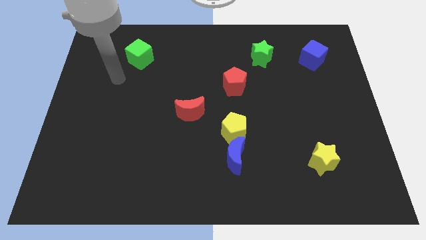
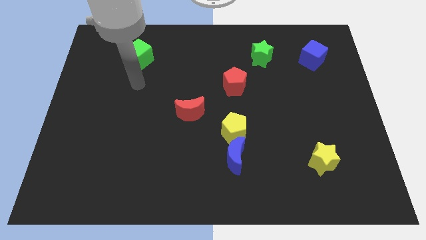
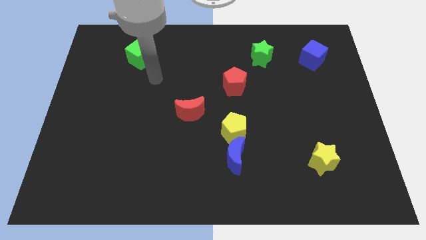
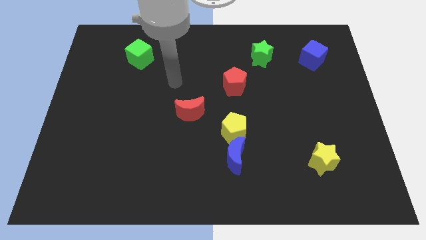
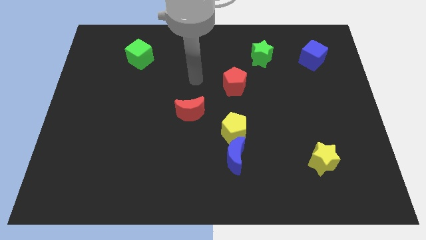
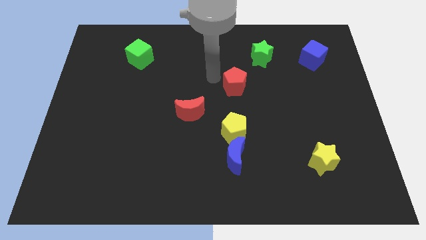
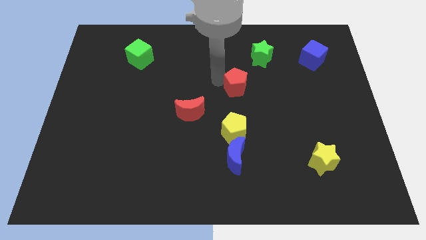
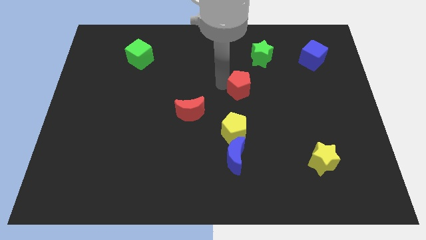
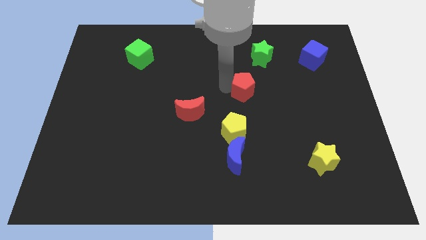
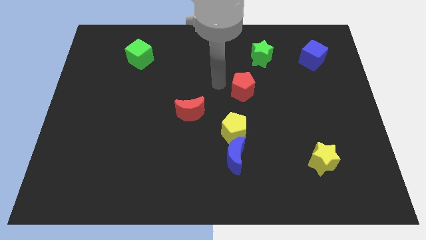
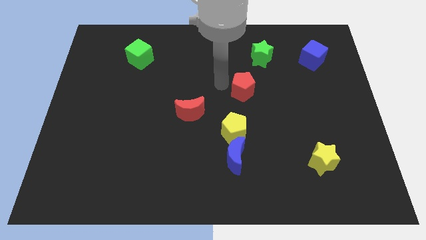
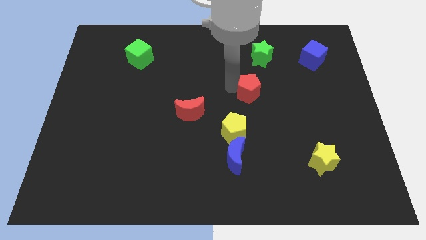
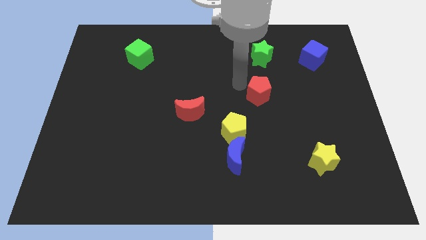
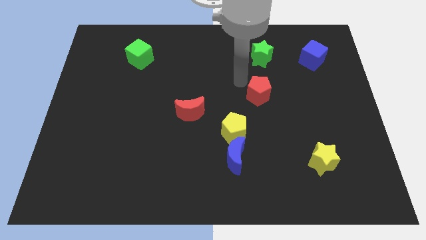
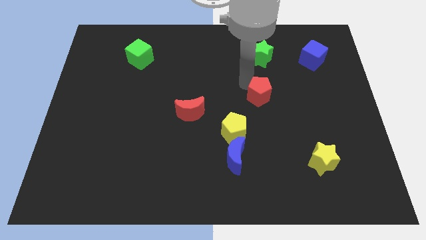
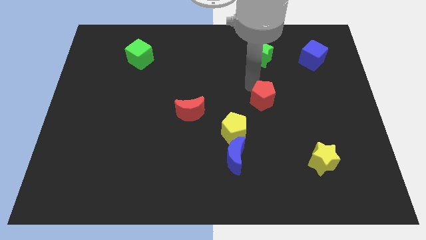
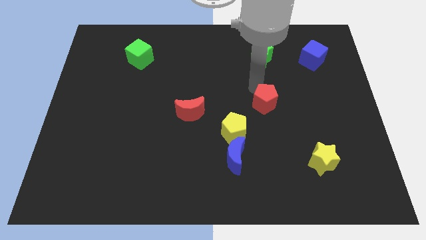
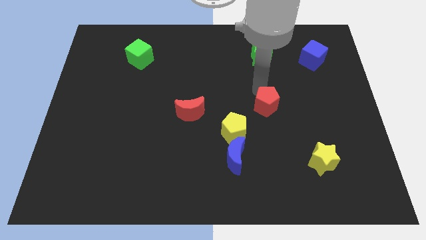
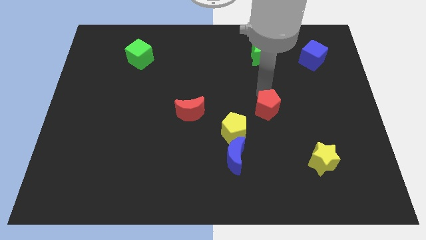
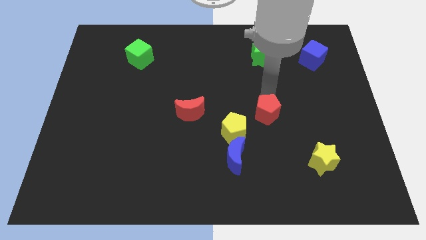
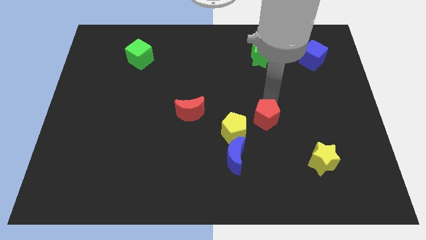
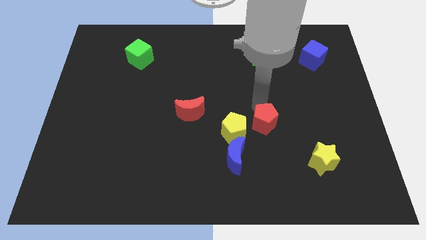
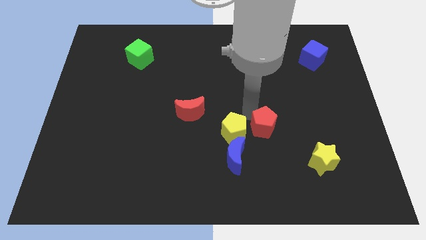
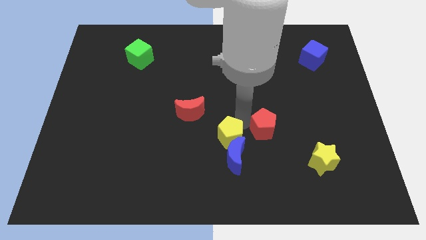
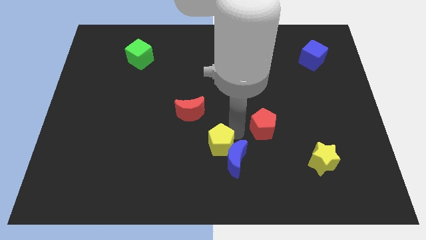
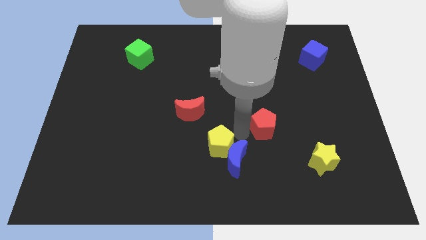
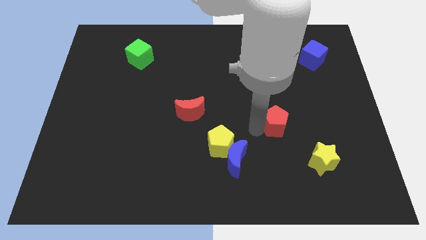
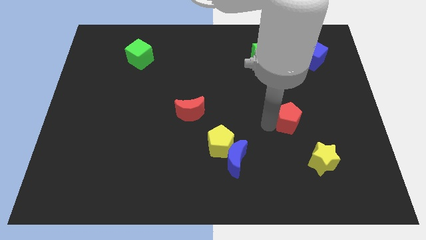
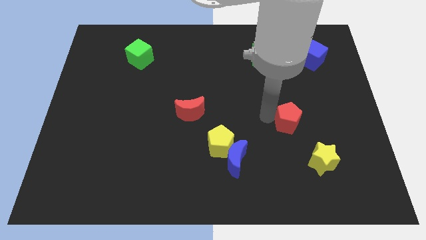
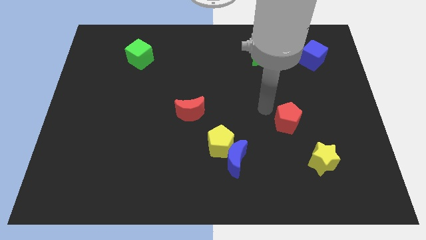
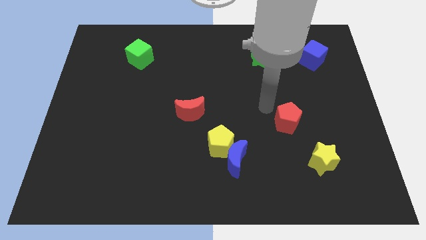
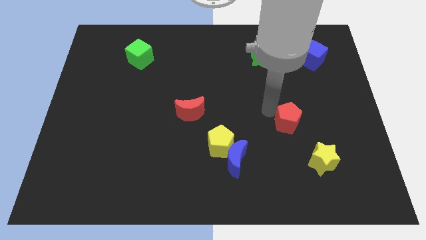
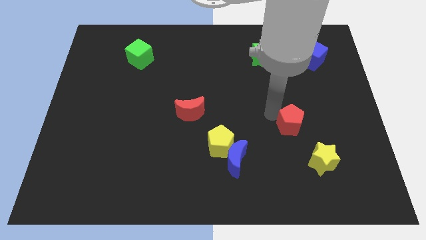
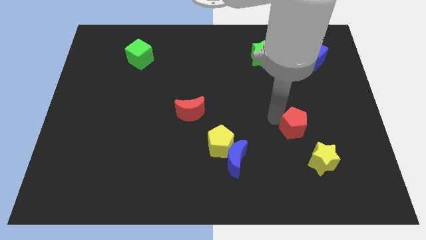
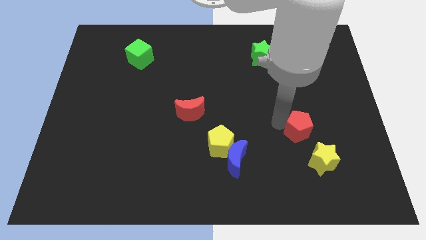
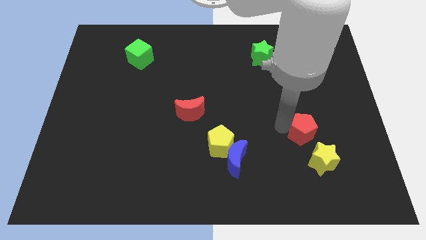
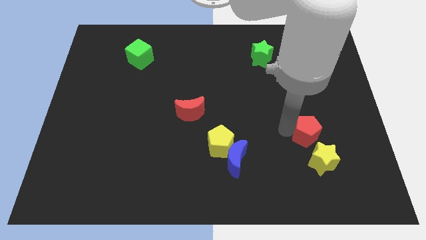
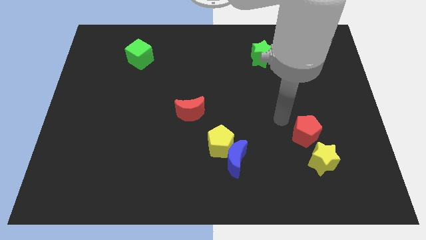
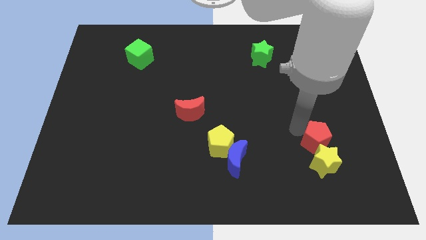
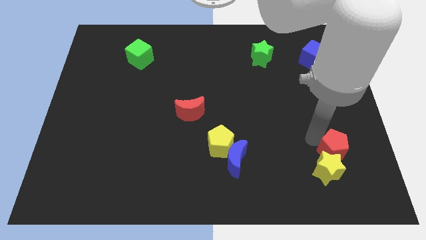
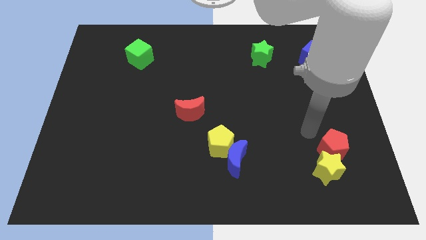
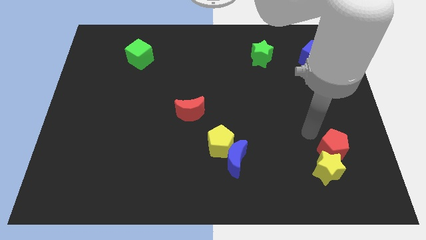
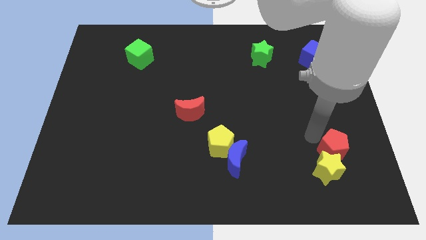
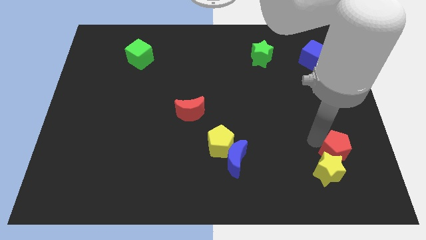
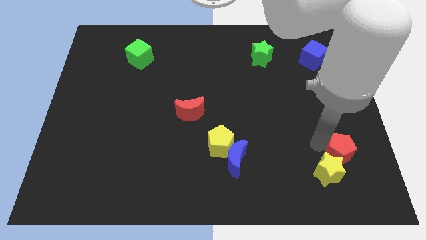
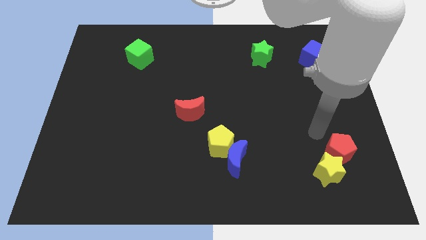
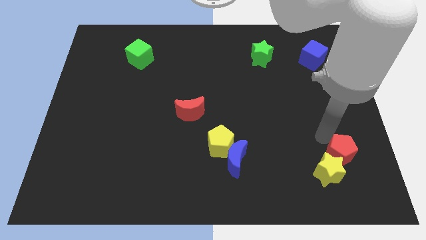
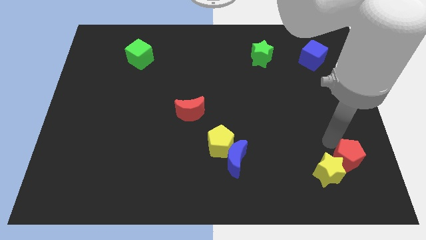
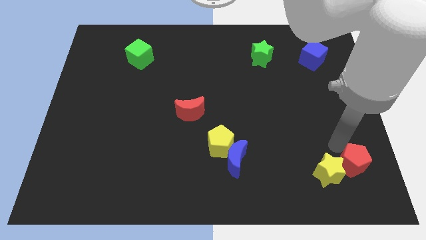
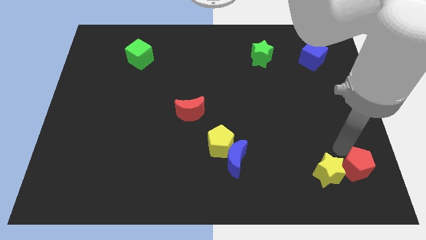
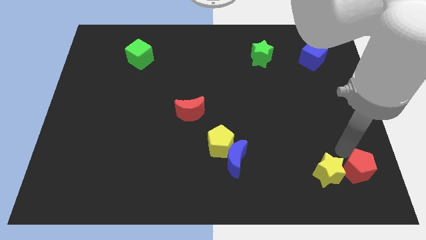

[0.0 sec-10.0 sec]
push the red pentagon to the bottom right of the board

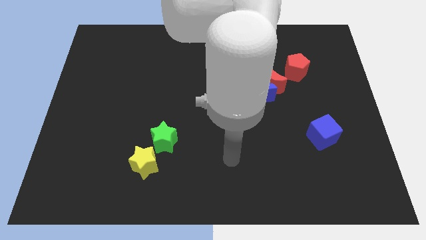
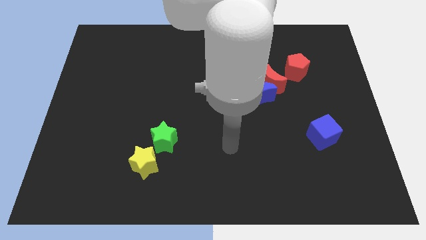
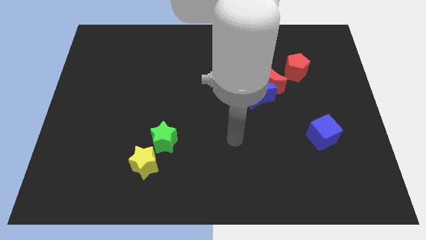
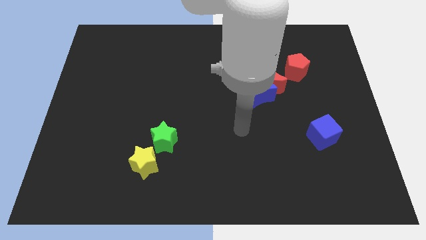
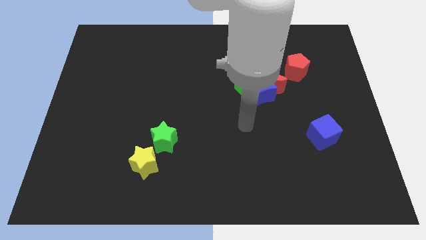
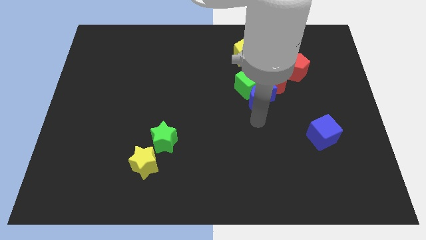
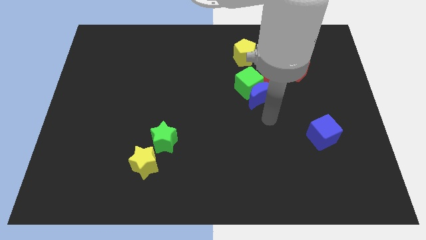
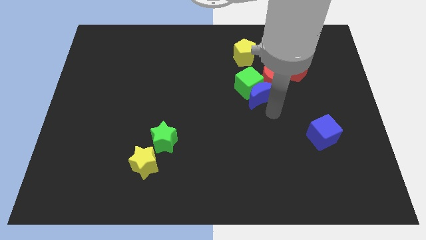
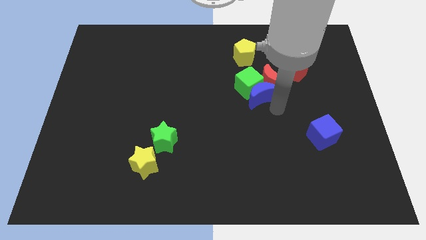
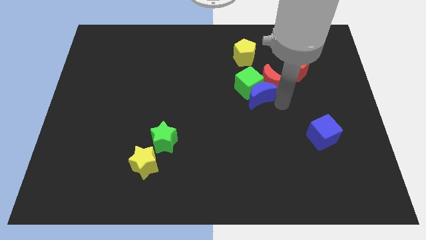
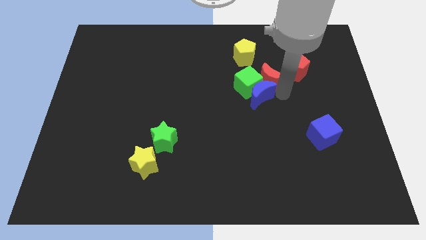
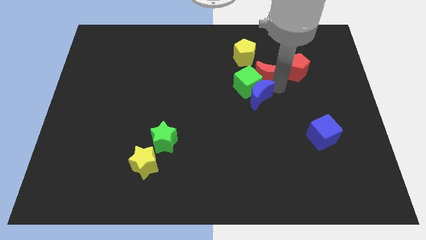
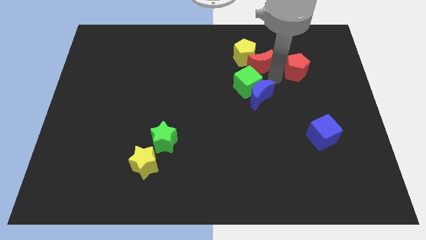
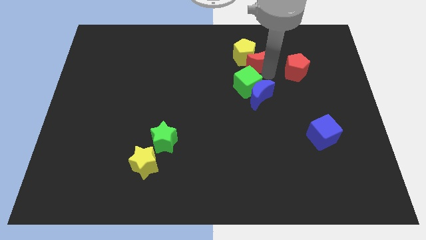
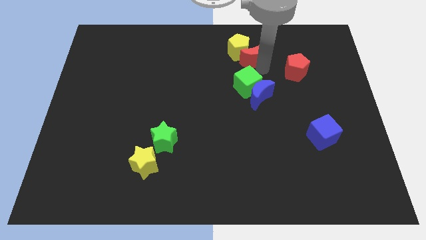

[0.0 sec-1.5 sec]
put the yellow pentagon to the top
